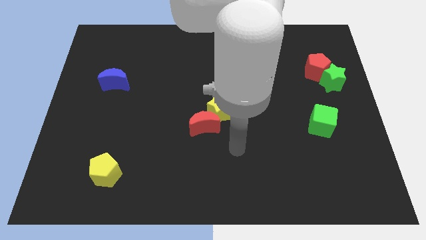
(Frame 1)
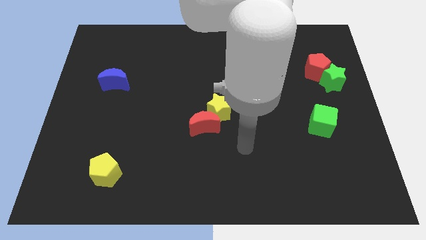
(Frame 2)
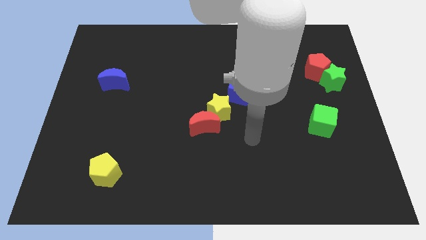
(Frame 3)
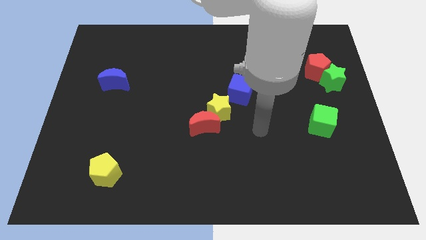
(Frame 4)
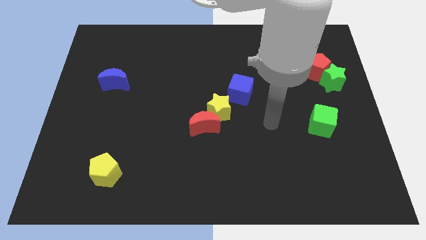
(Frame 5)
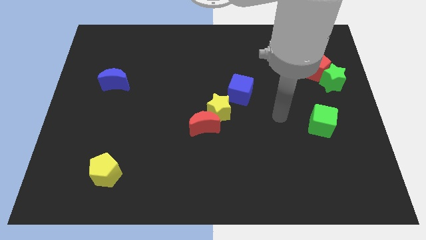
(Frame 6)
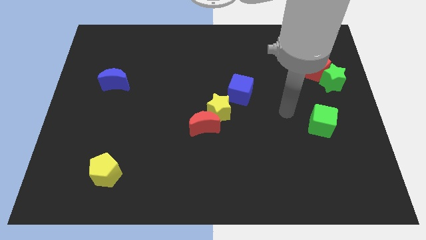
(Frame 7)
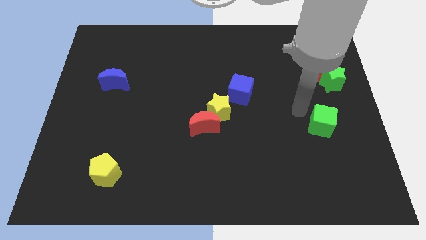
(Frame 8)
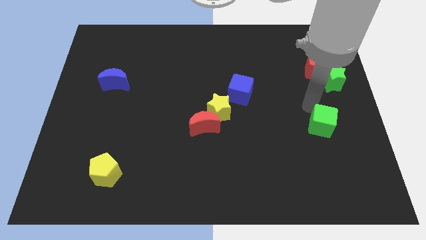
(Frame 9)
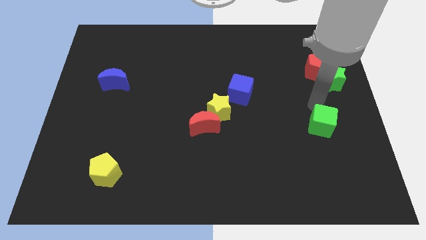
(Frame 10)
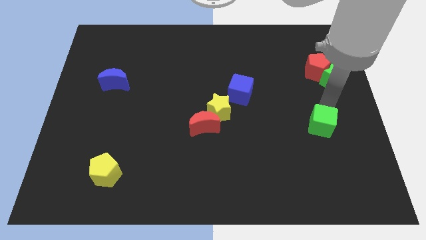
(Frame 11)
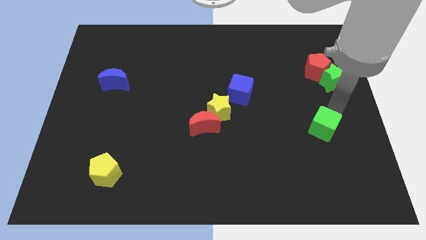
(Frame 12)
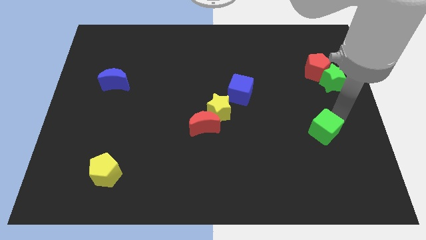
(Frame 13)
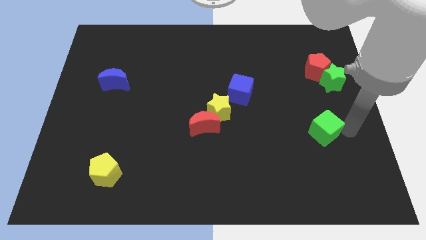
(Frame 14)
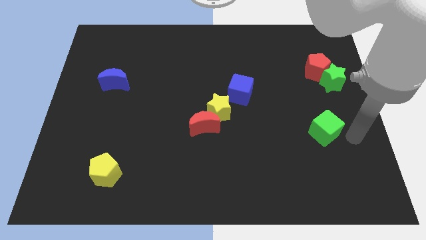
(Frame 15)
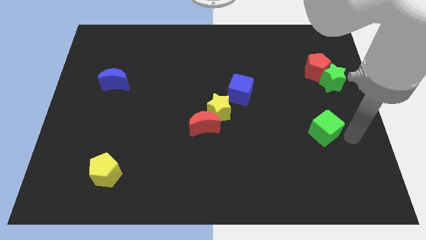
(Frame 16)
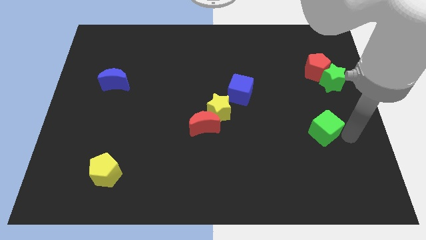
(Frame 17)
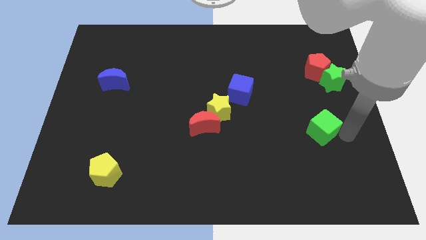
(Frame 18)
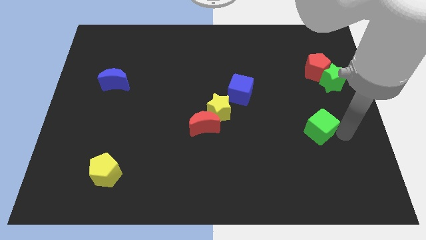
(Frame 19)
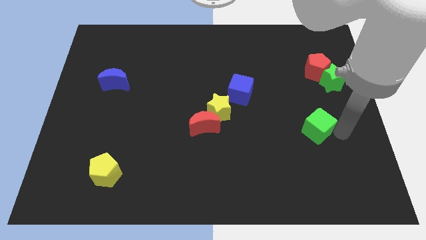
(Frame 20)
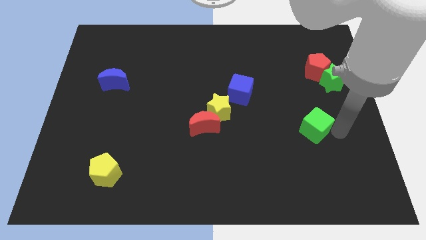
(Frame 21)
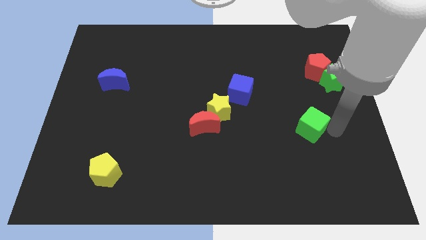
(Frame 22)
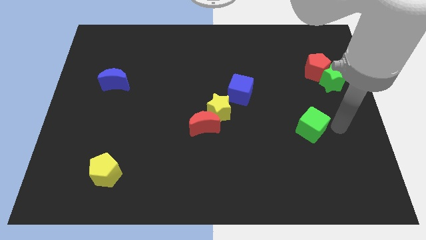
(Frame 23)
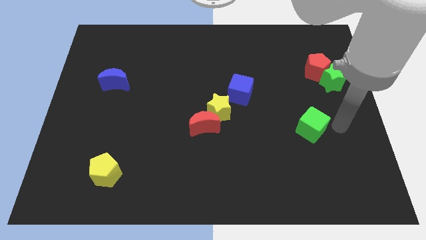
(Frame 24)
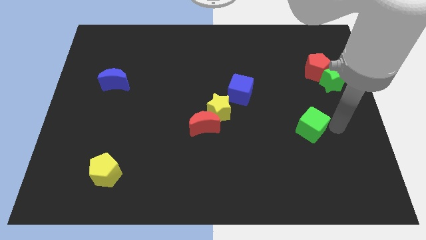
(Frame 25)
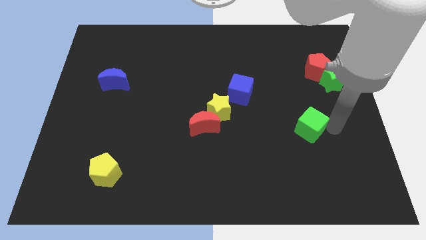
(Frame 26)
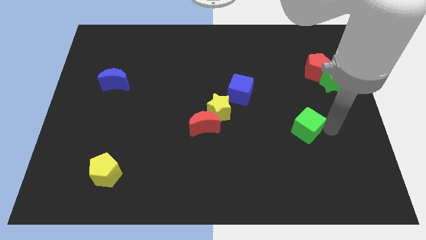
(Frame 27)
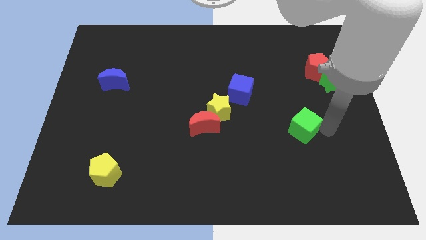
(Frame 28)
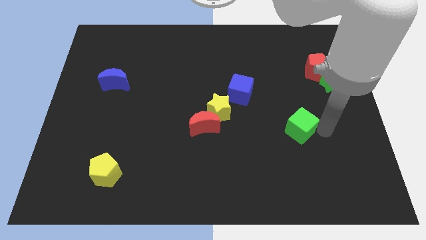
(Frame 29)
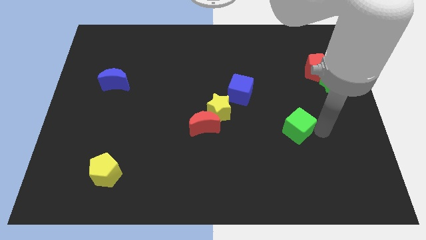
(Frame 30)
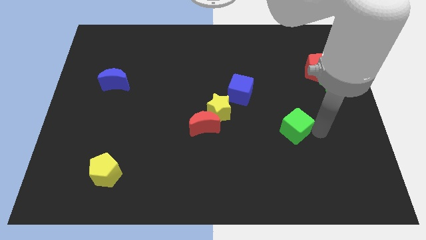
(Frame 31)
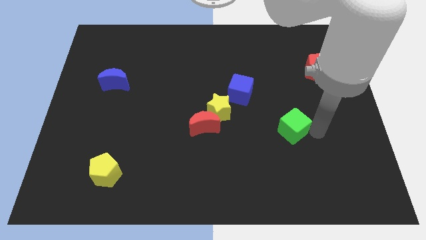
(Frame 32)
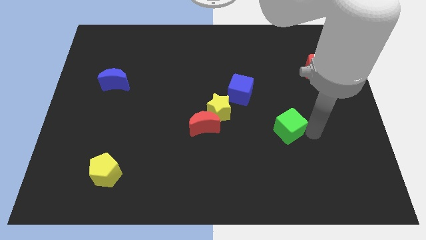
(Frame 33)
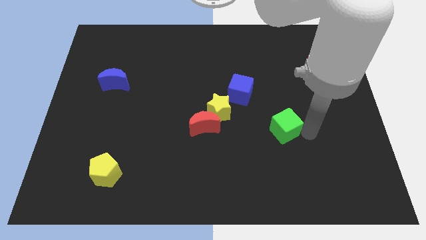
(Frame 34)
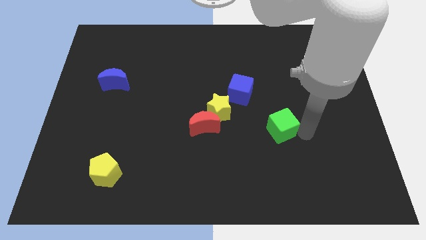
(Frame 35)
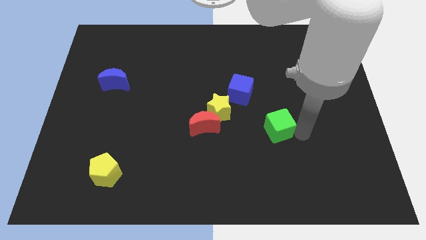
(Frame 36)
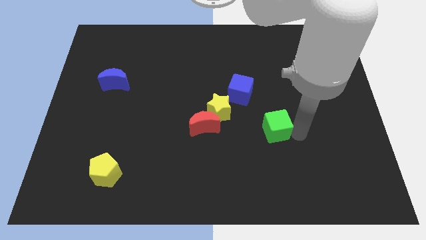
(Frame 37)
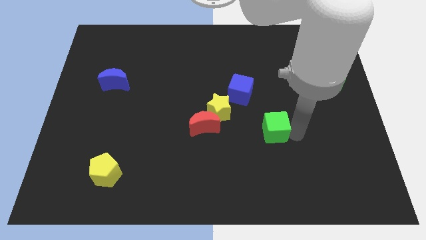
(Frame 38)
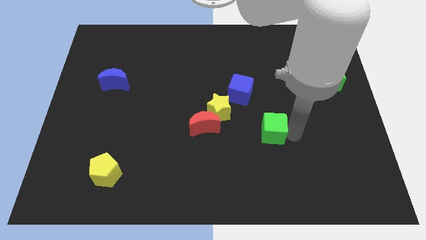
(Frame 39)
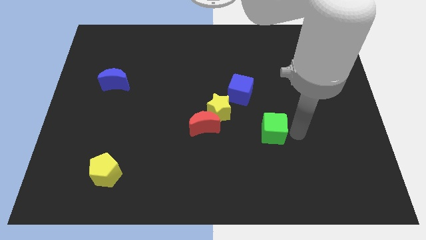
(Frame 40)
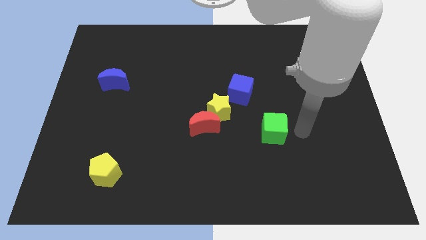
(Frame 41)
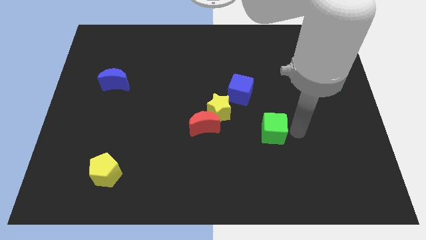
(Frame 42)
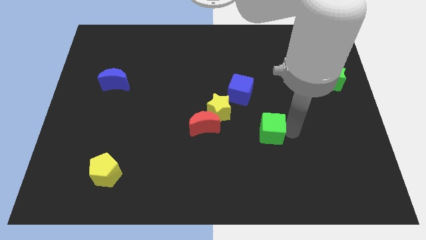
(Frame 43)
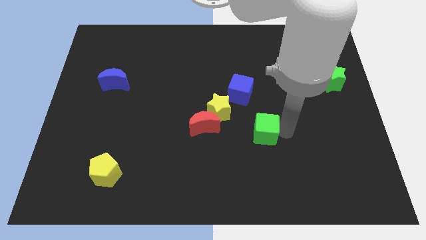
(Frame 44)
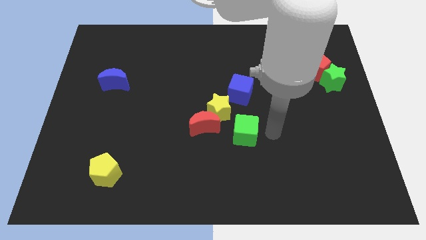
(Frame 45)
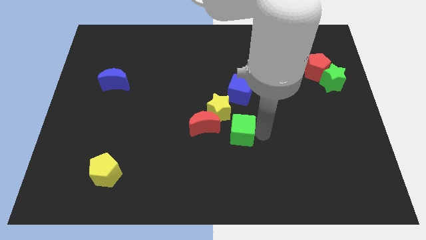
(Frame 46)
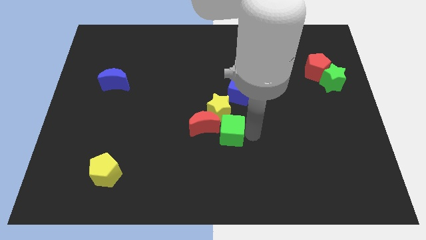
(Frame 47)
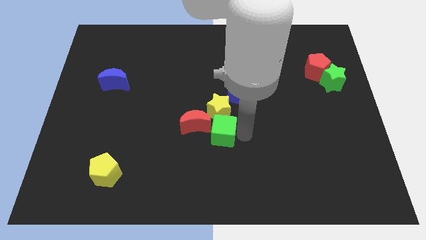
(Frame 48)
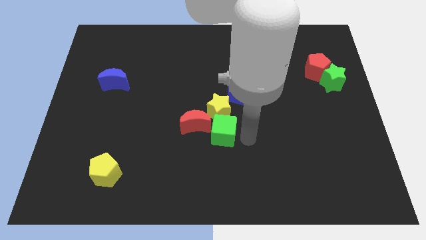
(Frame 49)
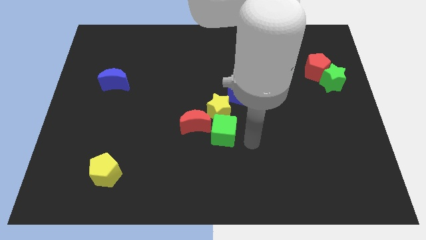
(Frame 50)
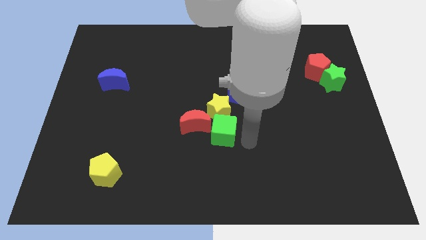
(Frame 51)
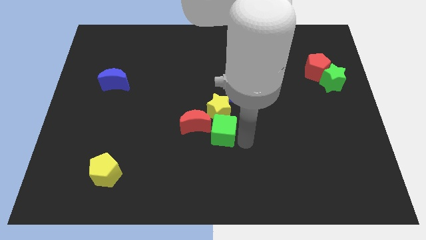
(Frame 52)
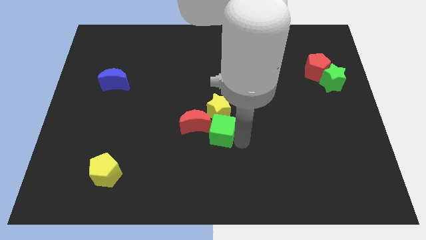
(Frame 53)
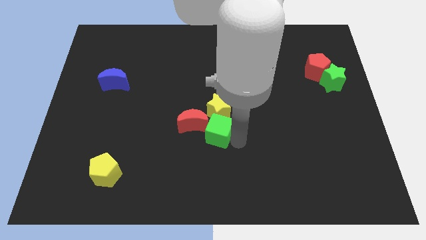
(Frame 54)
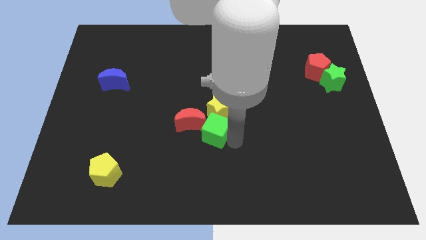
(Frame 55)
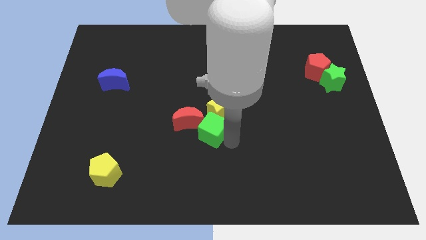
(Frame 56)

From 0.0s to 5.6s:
slide the green cube towards the red moon

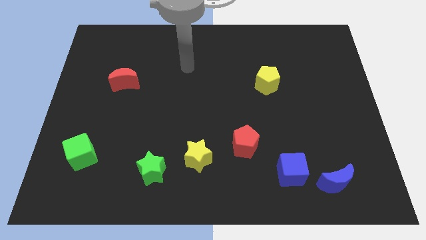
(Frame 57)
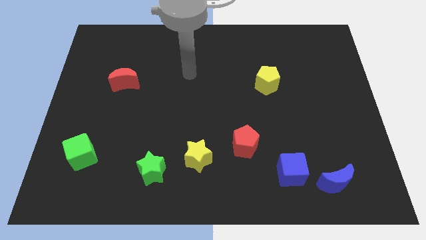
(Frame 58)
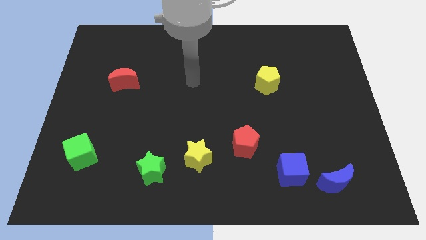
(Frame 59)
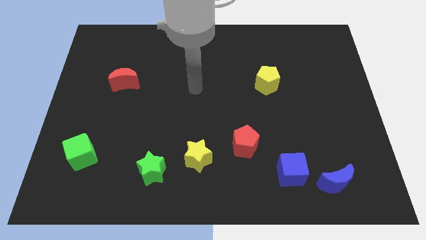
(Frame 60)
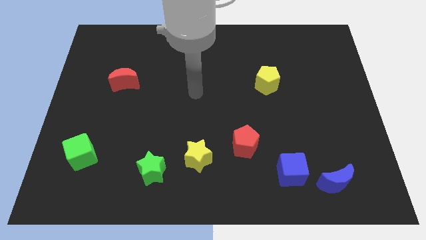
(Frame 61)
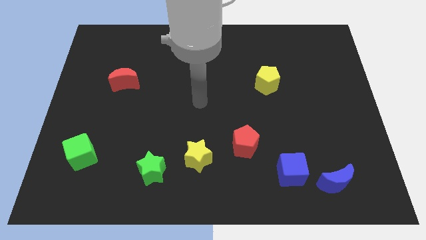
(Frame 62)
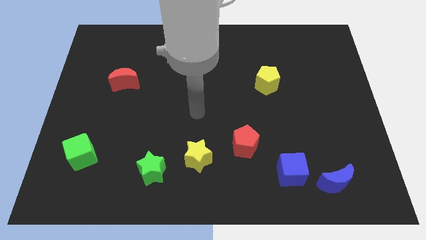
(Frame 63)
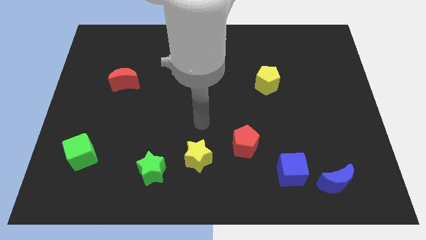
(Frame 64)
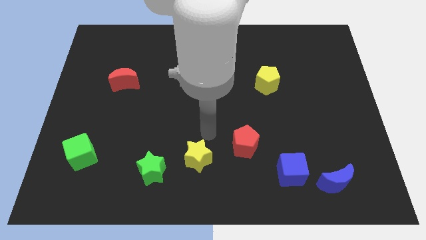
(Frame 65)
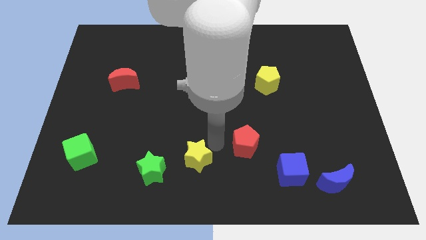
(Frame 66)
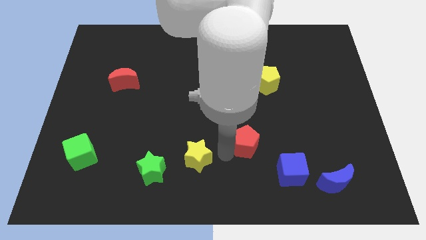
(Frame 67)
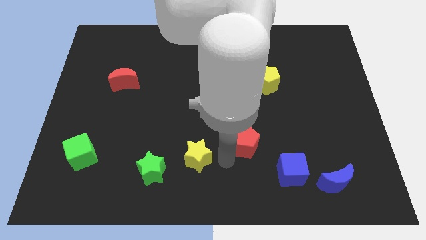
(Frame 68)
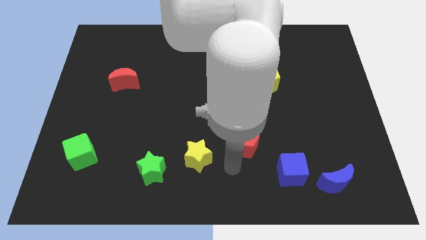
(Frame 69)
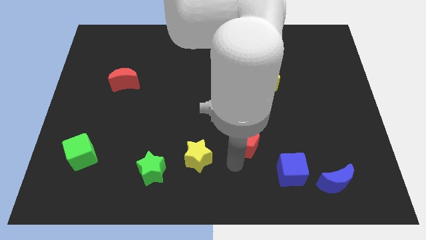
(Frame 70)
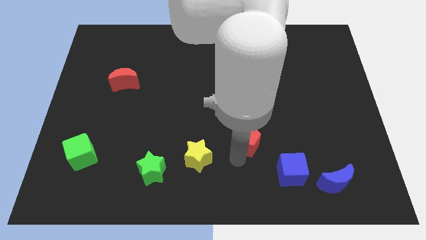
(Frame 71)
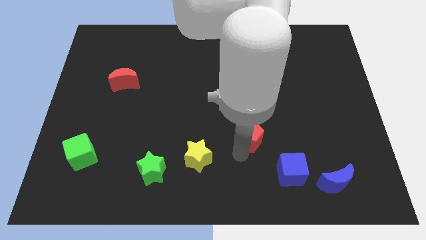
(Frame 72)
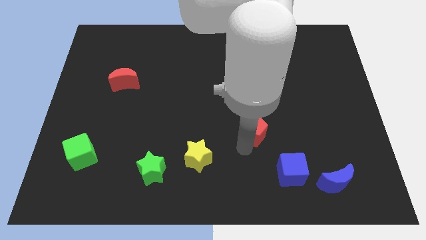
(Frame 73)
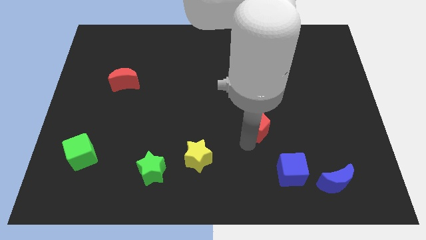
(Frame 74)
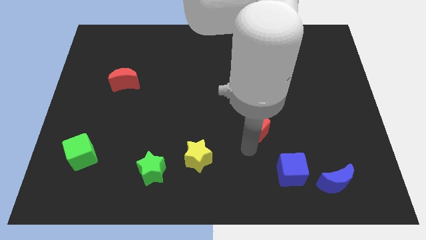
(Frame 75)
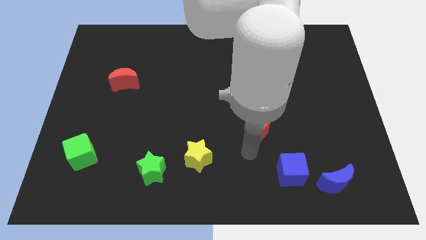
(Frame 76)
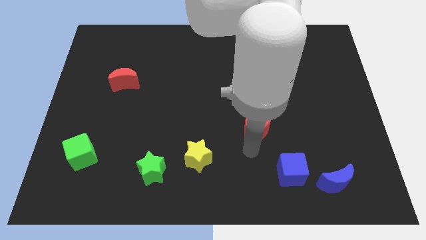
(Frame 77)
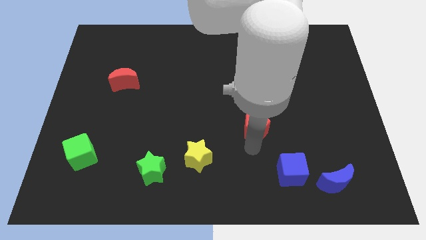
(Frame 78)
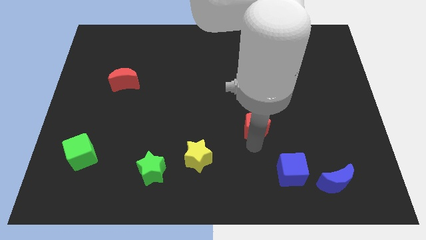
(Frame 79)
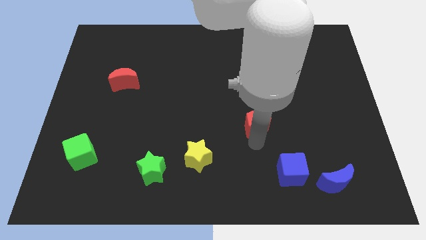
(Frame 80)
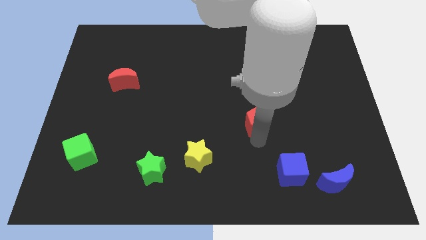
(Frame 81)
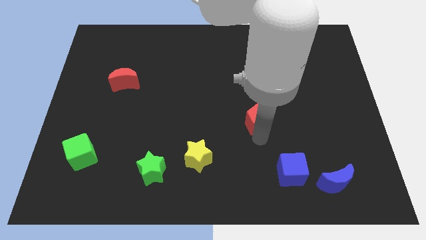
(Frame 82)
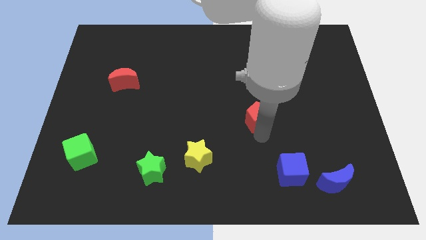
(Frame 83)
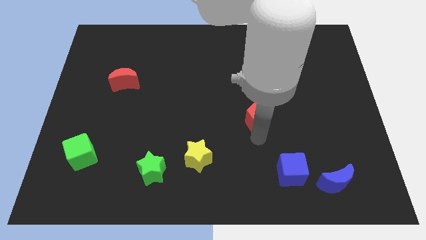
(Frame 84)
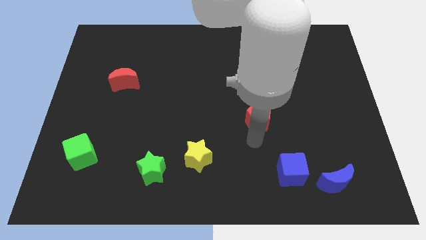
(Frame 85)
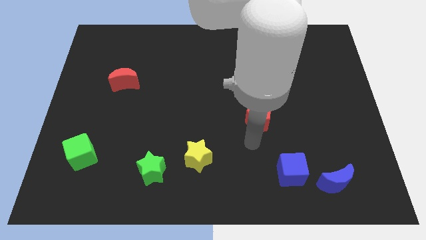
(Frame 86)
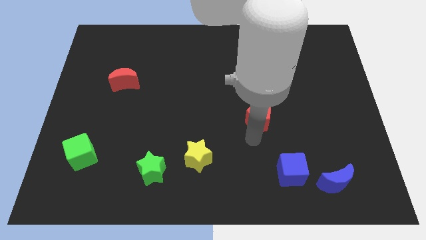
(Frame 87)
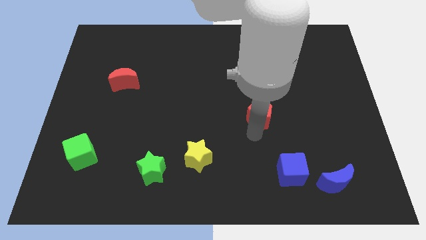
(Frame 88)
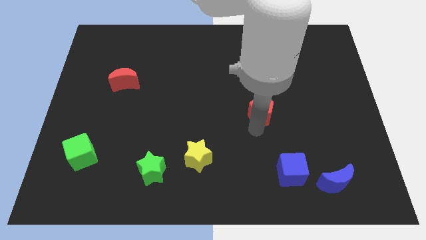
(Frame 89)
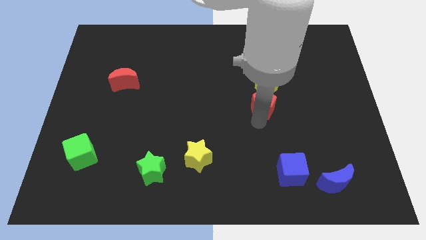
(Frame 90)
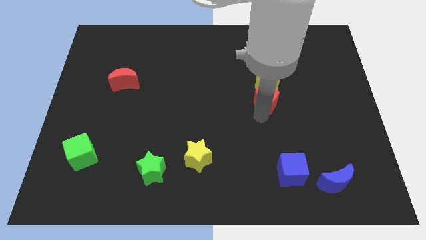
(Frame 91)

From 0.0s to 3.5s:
move the red pentagon towards the yellow pentagon
